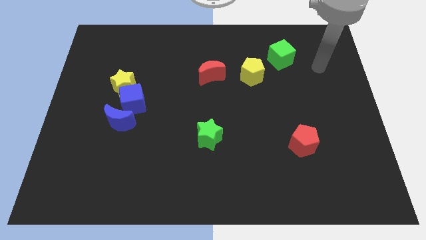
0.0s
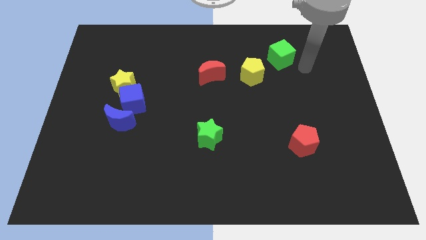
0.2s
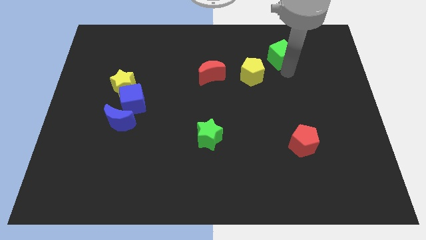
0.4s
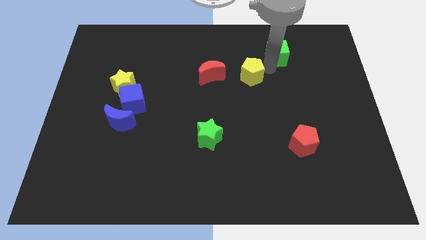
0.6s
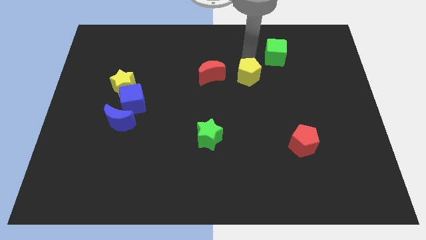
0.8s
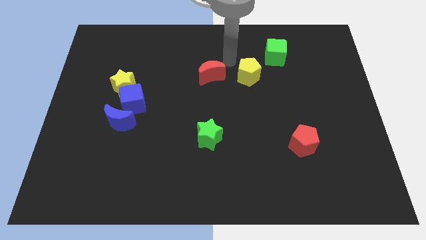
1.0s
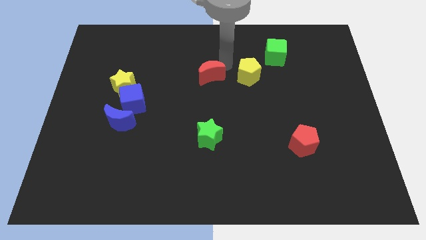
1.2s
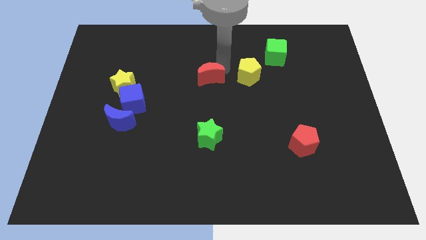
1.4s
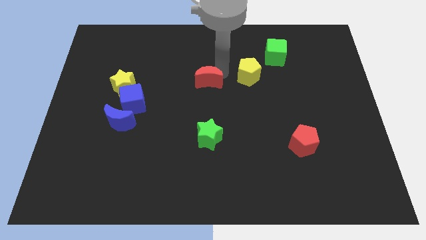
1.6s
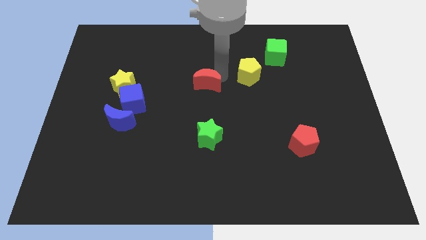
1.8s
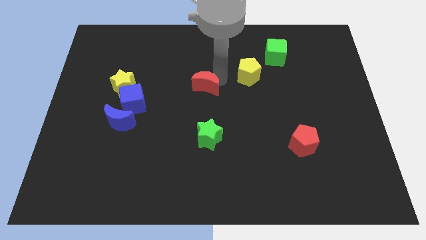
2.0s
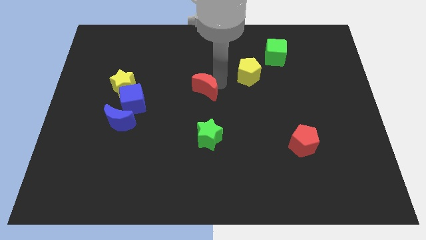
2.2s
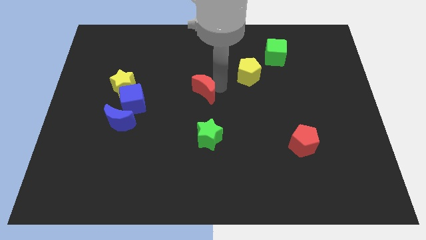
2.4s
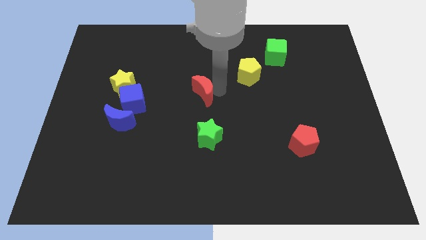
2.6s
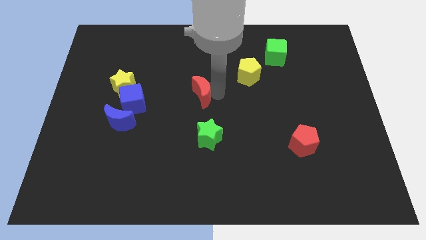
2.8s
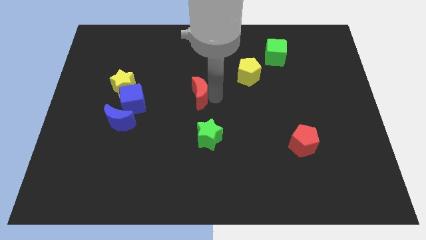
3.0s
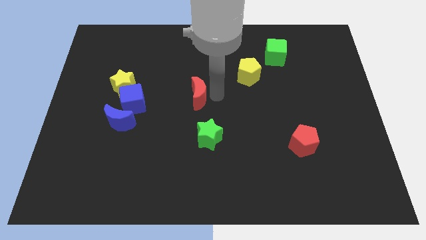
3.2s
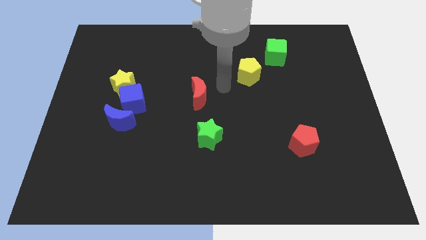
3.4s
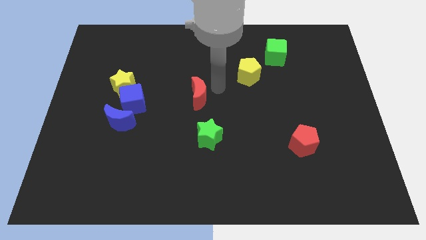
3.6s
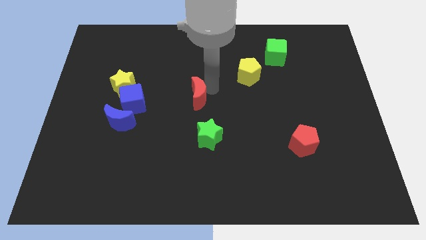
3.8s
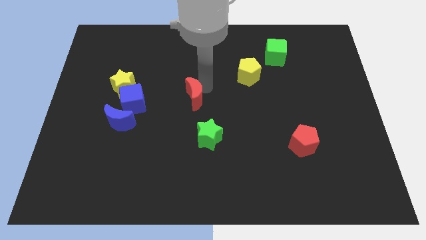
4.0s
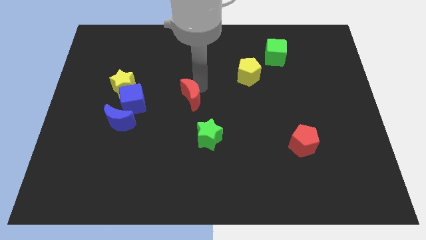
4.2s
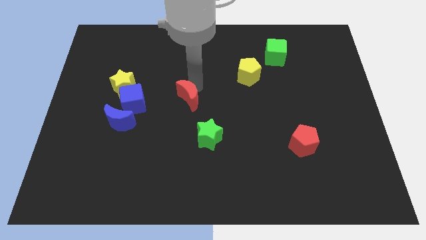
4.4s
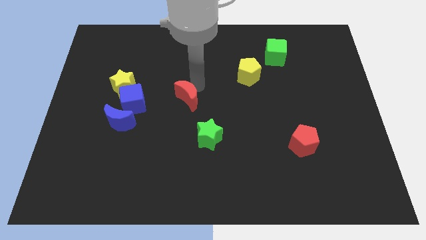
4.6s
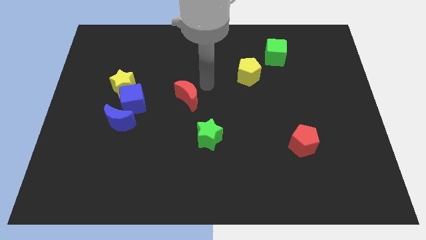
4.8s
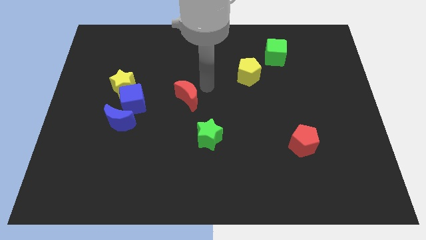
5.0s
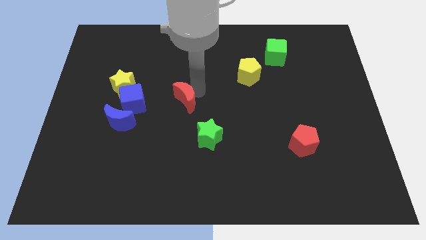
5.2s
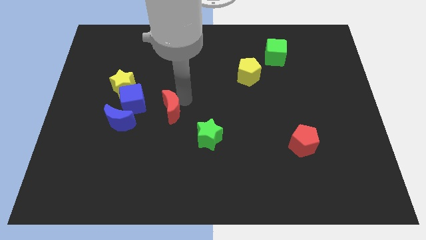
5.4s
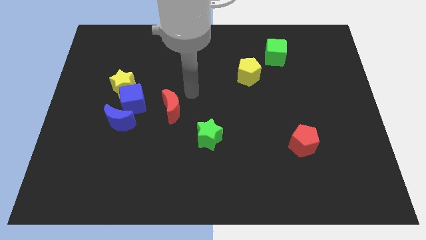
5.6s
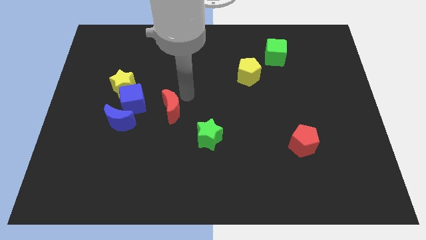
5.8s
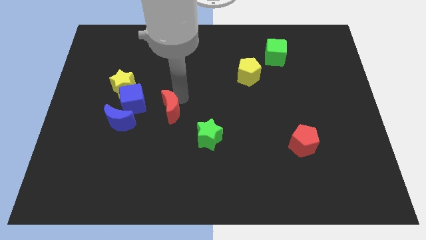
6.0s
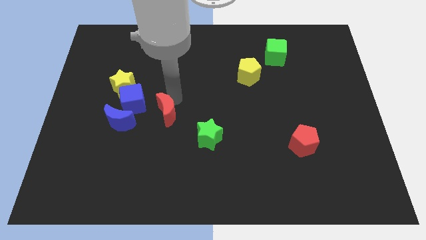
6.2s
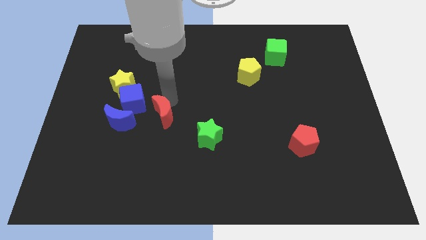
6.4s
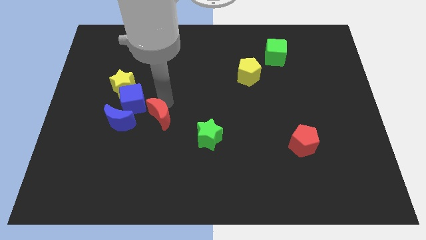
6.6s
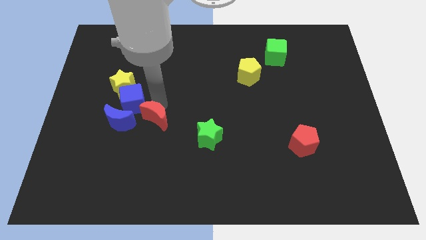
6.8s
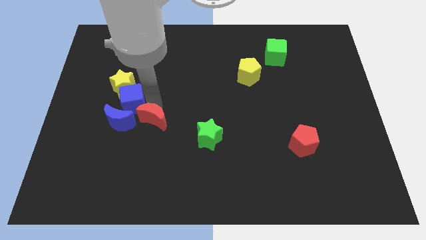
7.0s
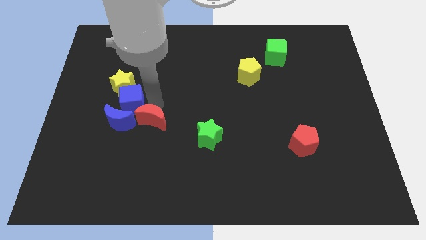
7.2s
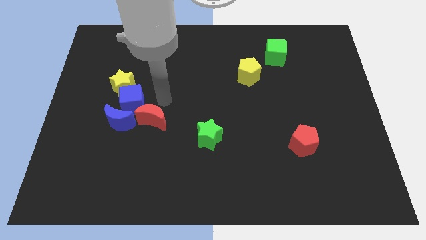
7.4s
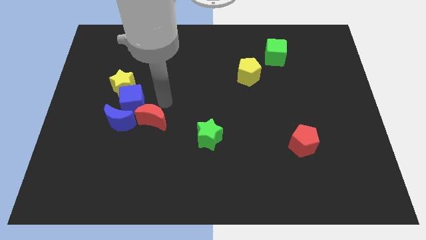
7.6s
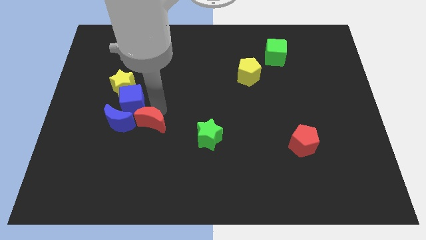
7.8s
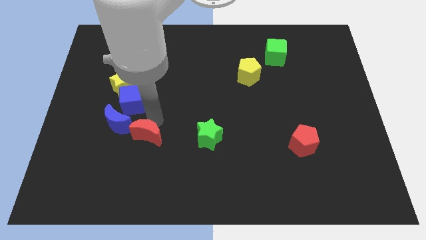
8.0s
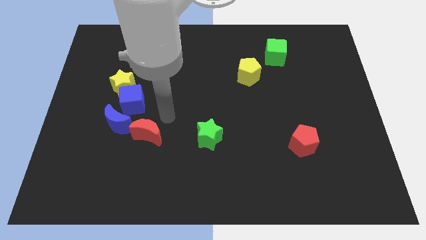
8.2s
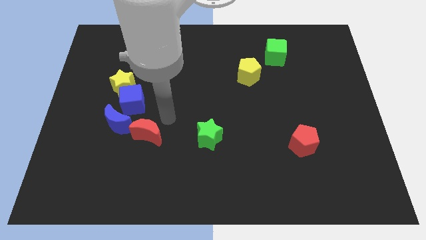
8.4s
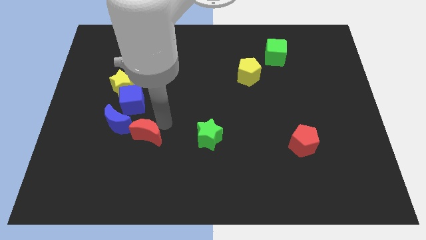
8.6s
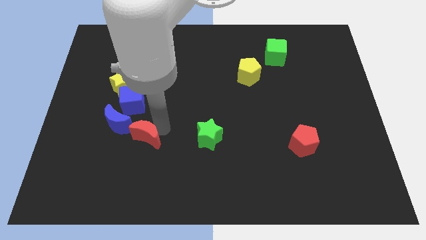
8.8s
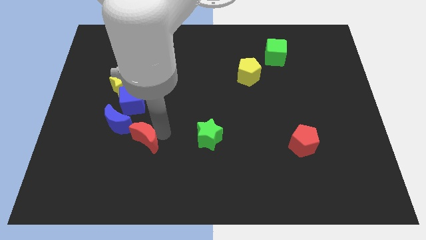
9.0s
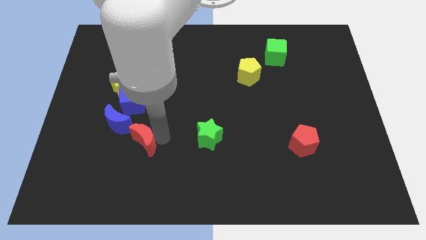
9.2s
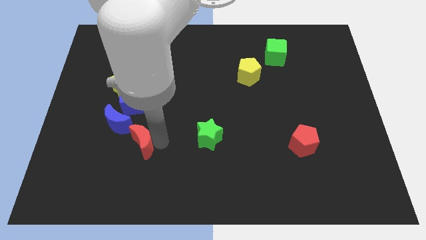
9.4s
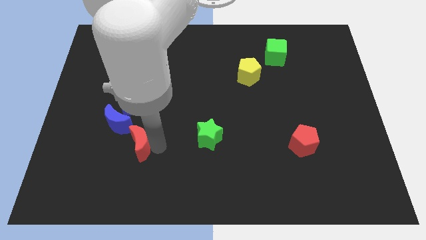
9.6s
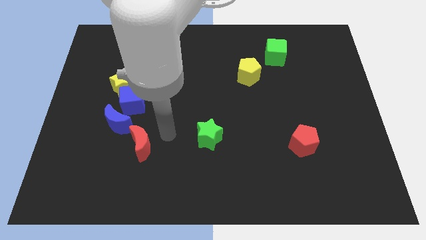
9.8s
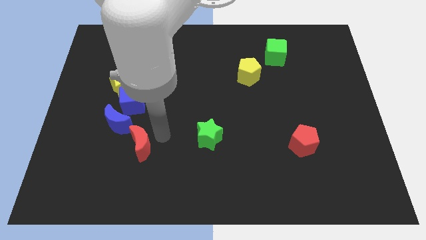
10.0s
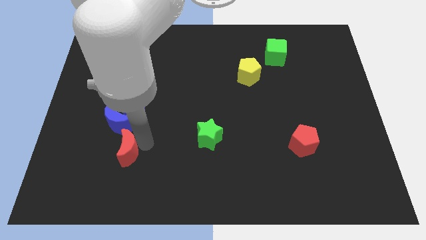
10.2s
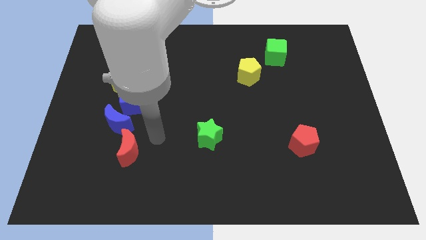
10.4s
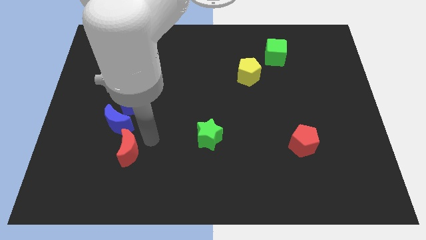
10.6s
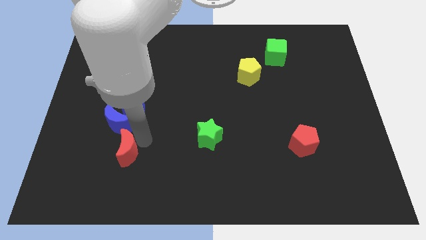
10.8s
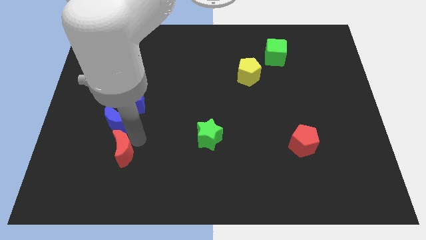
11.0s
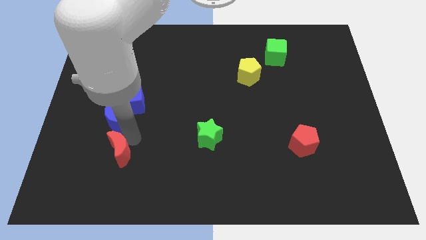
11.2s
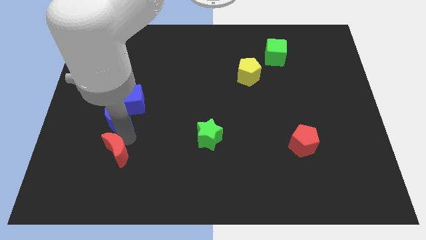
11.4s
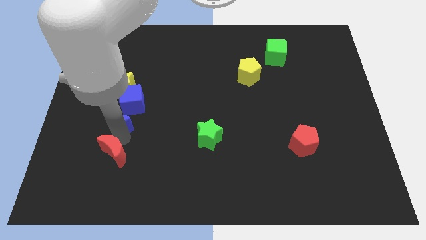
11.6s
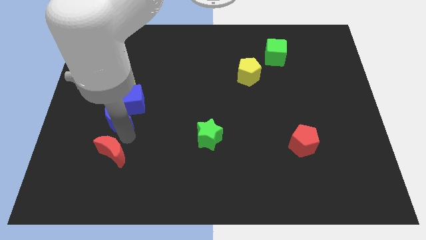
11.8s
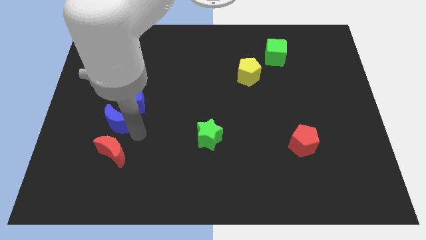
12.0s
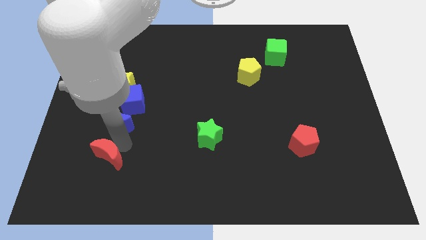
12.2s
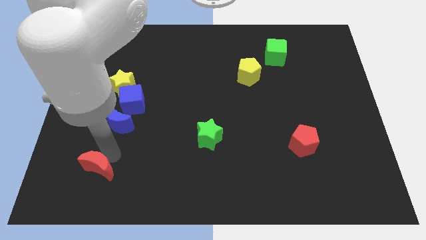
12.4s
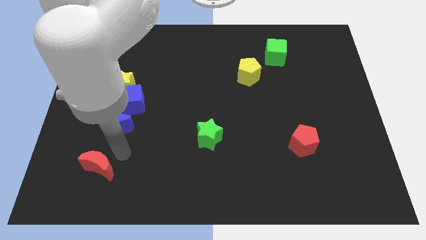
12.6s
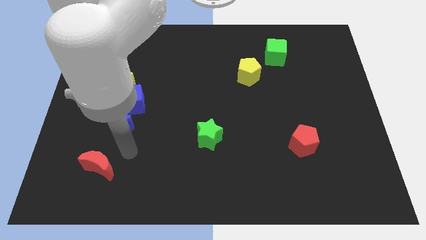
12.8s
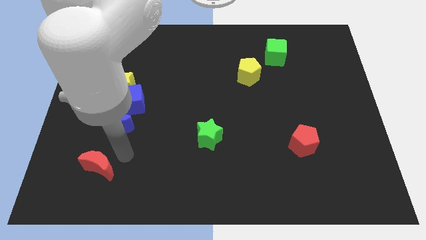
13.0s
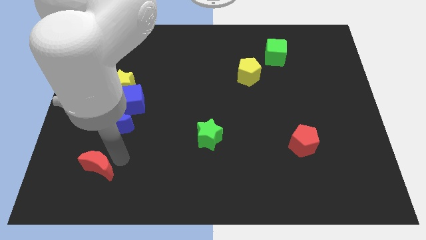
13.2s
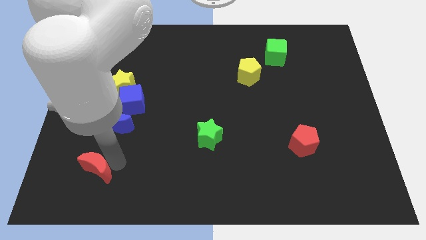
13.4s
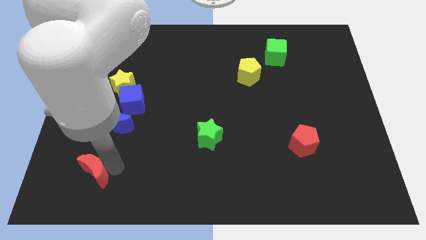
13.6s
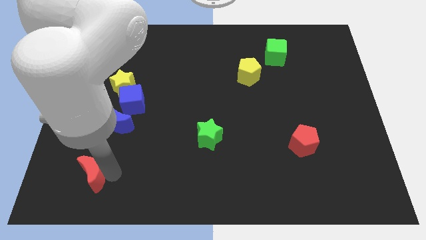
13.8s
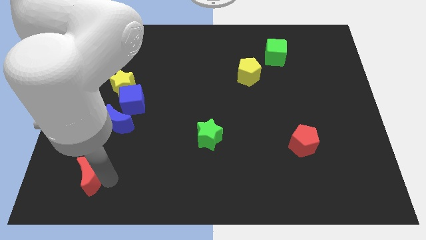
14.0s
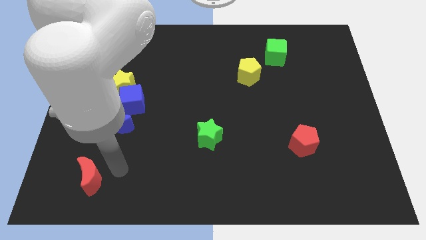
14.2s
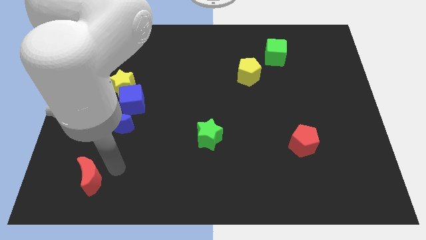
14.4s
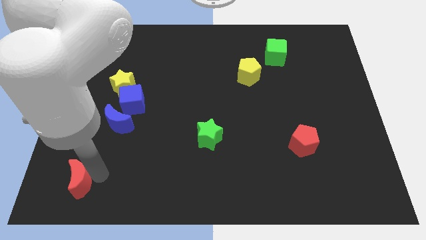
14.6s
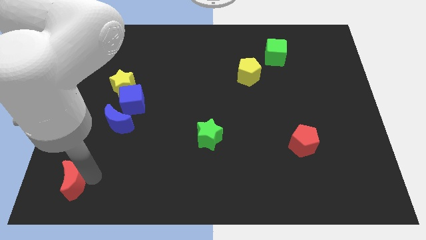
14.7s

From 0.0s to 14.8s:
push the red moon to the lower left corner
